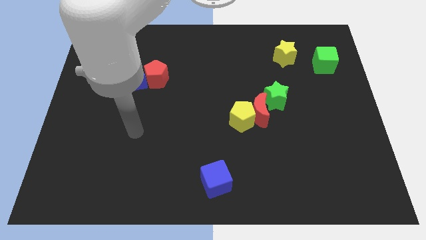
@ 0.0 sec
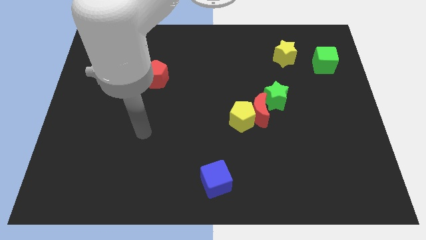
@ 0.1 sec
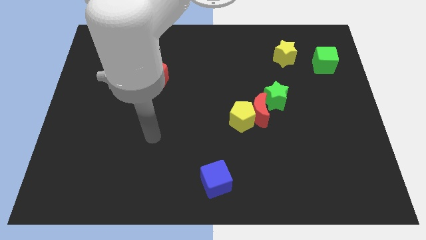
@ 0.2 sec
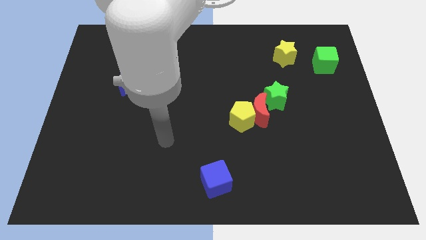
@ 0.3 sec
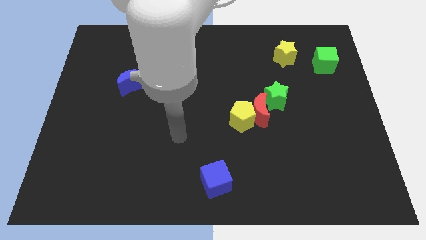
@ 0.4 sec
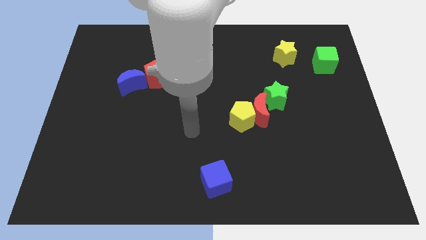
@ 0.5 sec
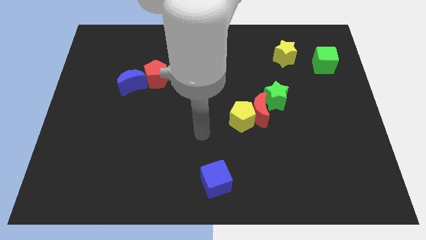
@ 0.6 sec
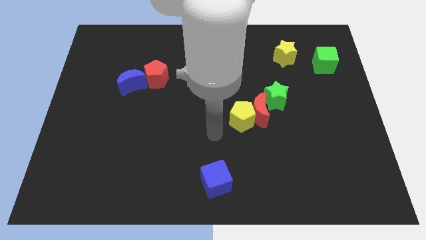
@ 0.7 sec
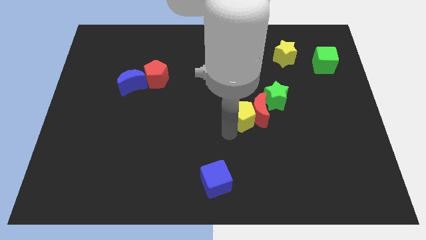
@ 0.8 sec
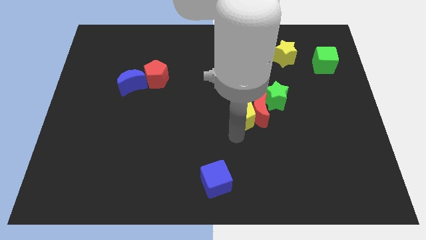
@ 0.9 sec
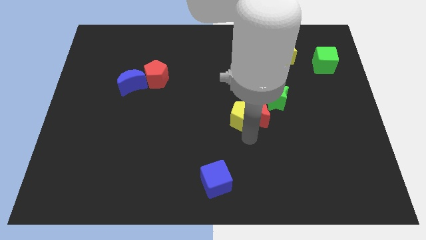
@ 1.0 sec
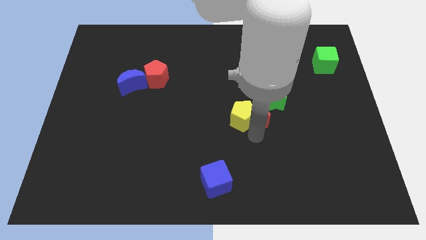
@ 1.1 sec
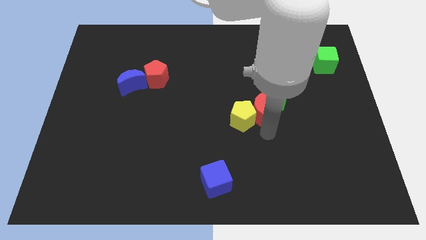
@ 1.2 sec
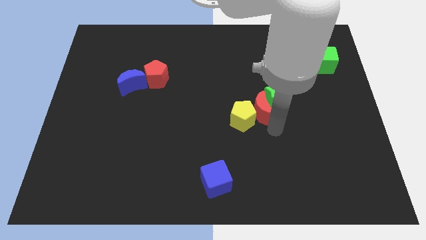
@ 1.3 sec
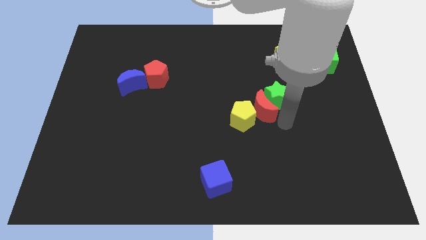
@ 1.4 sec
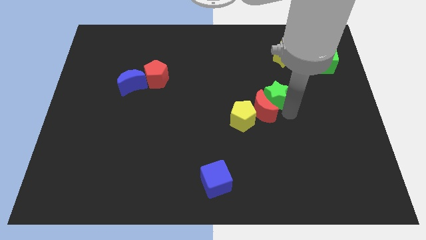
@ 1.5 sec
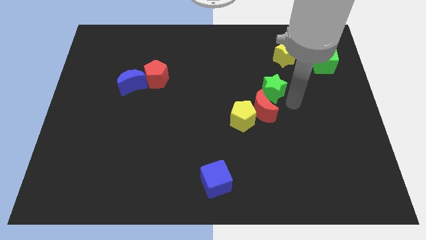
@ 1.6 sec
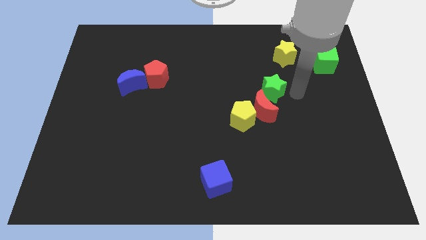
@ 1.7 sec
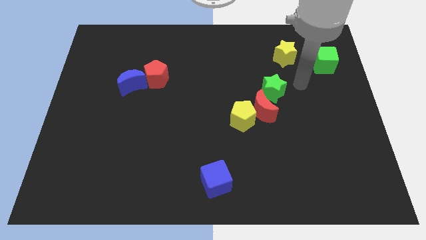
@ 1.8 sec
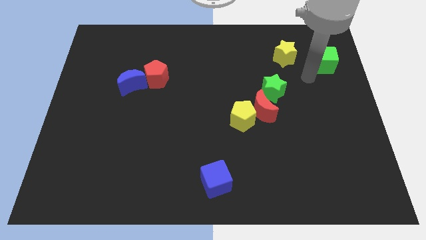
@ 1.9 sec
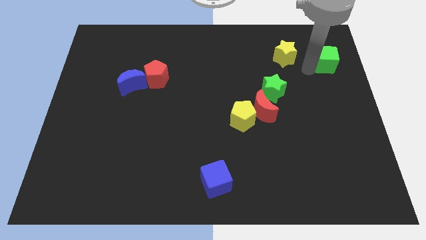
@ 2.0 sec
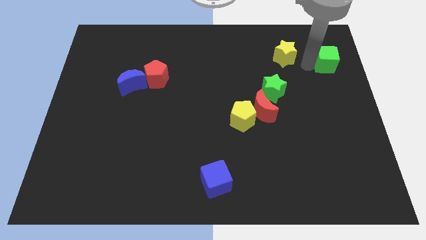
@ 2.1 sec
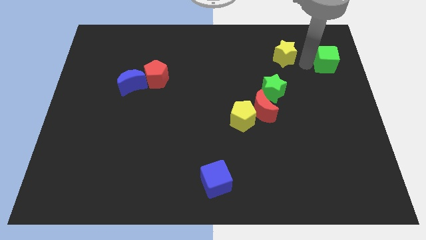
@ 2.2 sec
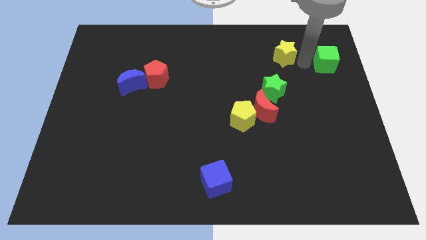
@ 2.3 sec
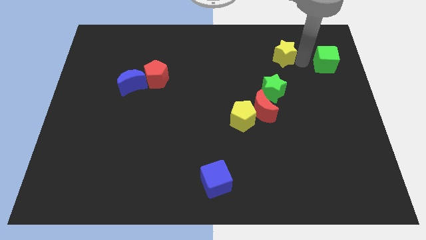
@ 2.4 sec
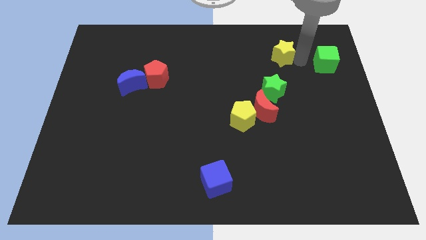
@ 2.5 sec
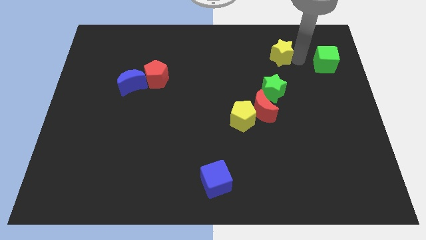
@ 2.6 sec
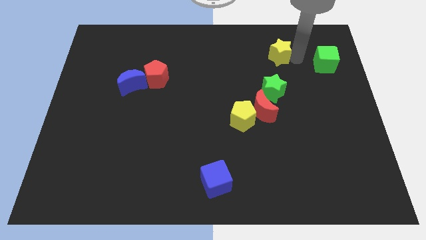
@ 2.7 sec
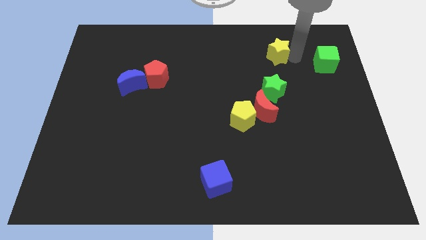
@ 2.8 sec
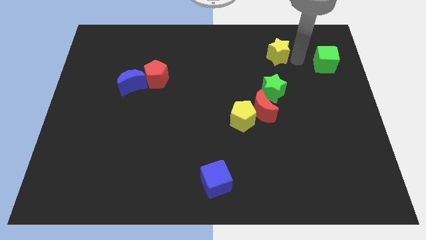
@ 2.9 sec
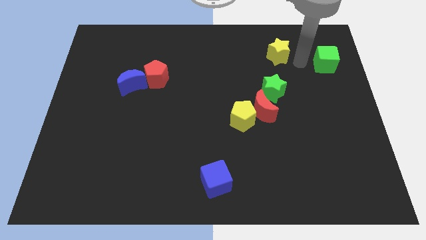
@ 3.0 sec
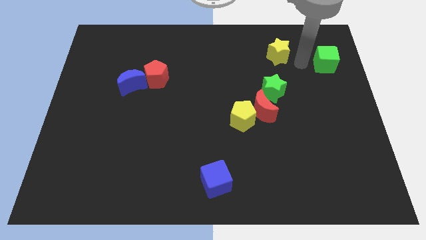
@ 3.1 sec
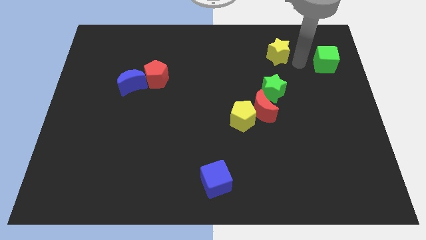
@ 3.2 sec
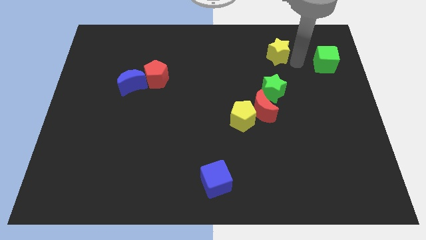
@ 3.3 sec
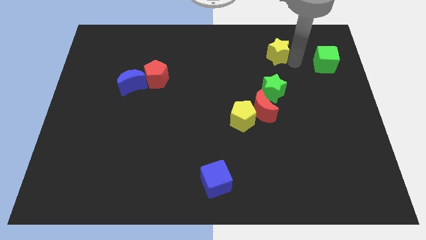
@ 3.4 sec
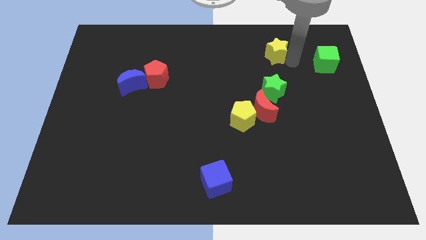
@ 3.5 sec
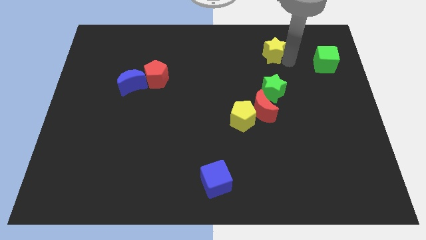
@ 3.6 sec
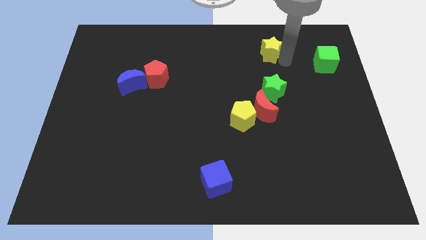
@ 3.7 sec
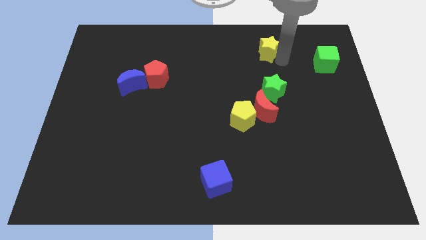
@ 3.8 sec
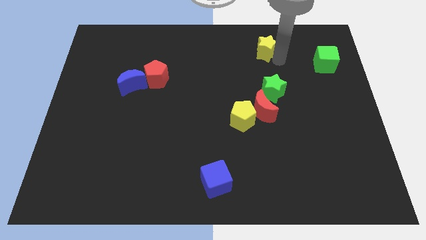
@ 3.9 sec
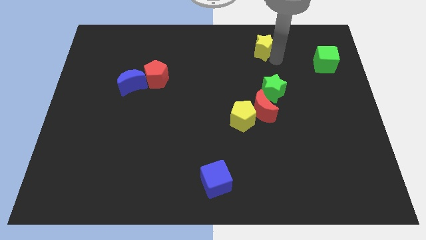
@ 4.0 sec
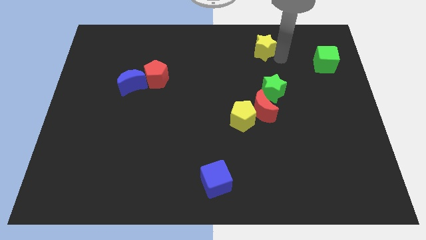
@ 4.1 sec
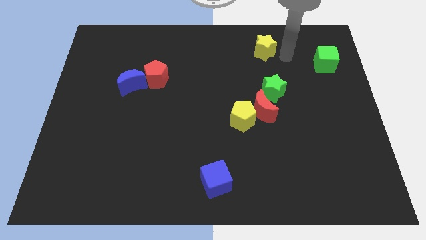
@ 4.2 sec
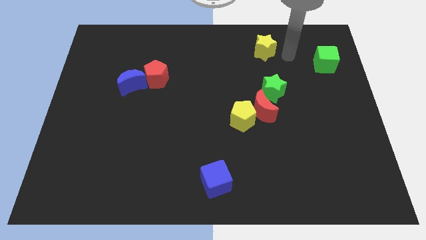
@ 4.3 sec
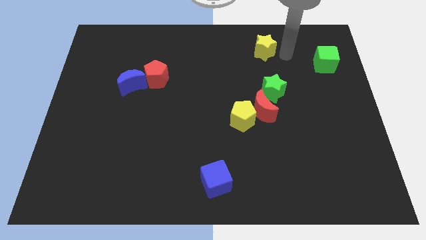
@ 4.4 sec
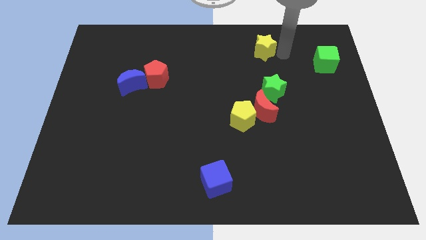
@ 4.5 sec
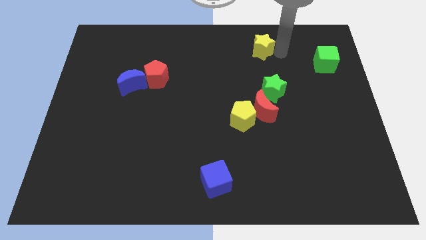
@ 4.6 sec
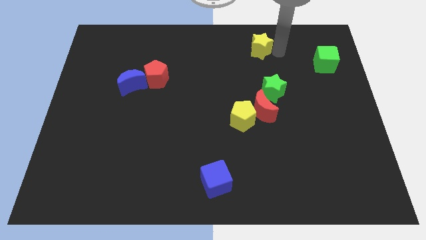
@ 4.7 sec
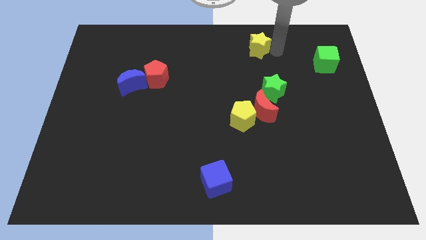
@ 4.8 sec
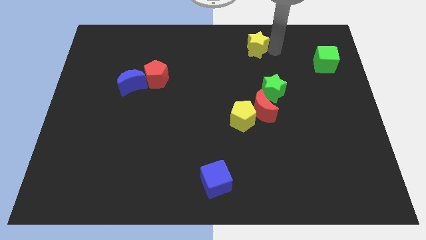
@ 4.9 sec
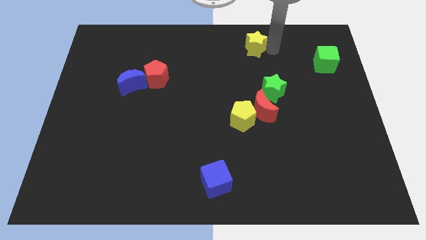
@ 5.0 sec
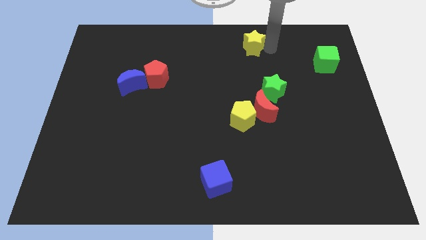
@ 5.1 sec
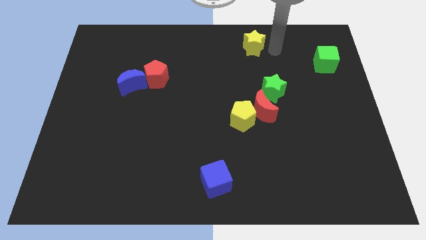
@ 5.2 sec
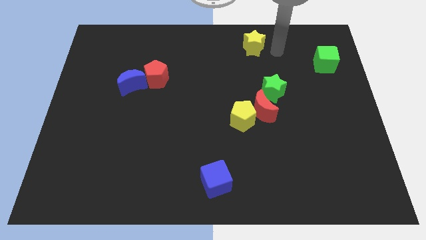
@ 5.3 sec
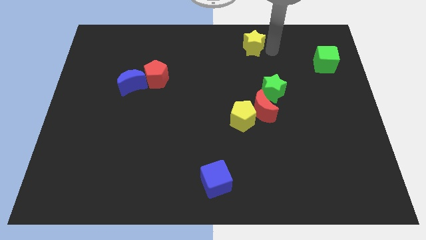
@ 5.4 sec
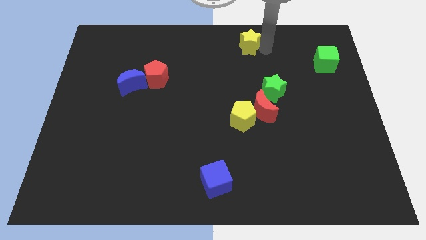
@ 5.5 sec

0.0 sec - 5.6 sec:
put the yellow star to the top side
